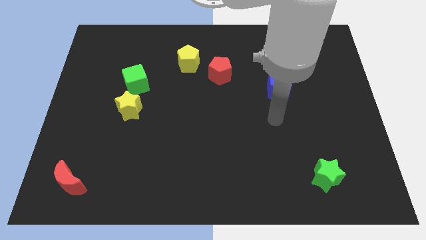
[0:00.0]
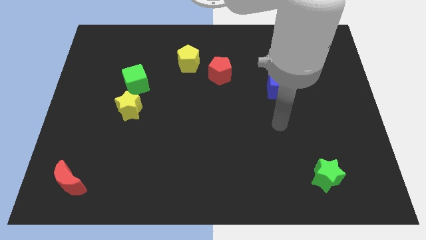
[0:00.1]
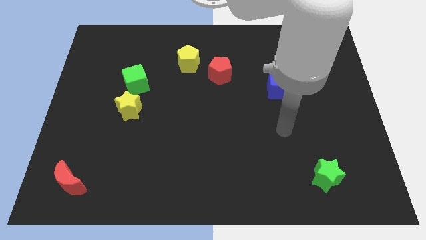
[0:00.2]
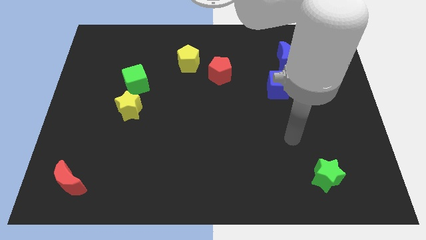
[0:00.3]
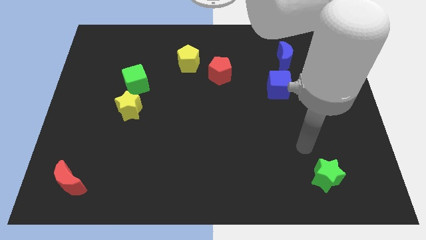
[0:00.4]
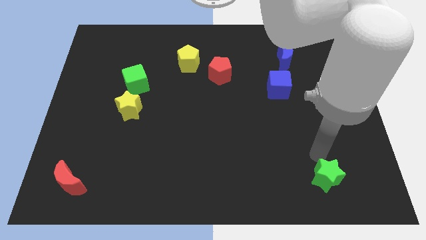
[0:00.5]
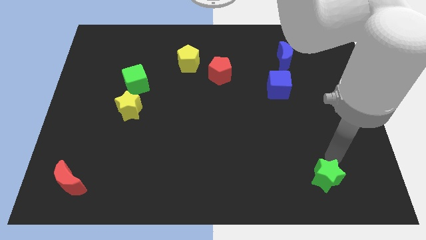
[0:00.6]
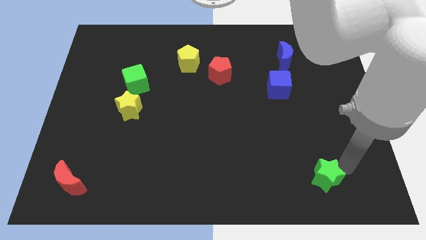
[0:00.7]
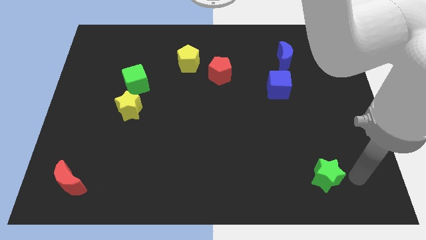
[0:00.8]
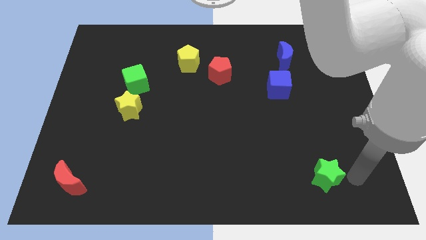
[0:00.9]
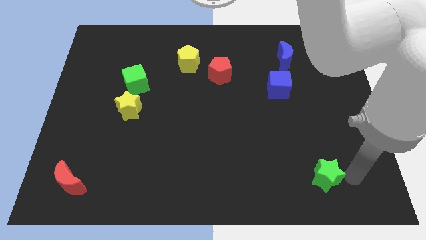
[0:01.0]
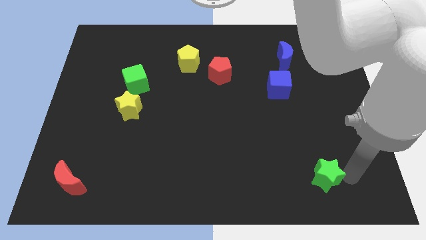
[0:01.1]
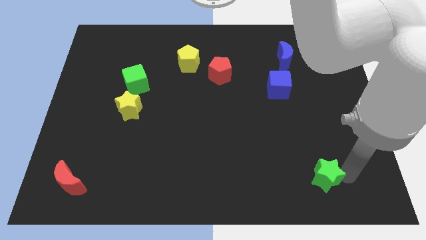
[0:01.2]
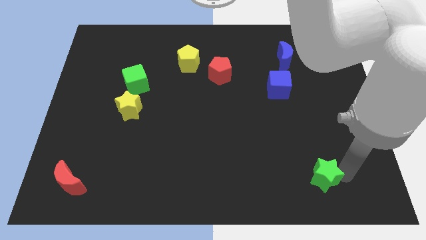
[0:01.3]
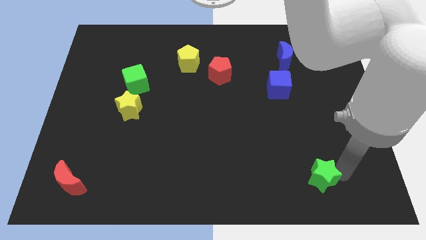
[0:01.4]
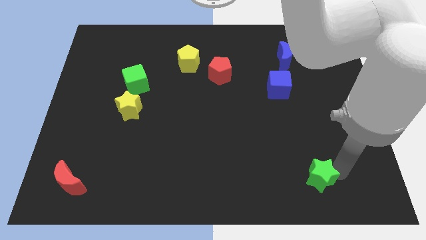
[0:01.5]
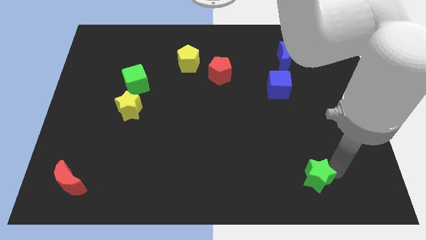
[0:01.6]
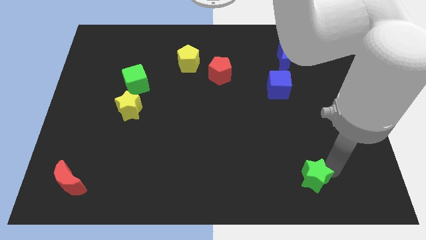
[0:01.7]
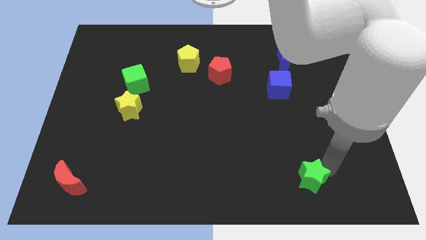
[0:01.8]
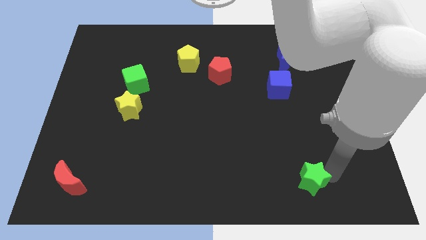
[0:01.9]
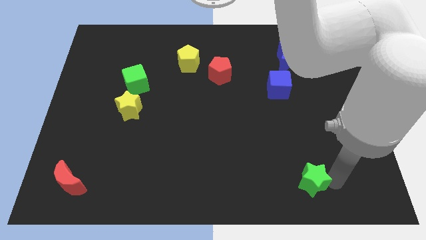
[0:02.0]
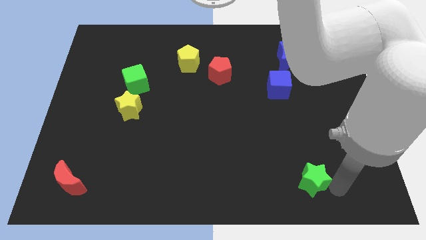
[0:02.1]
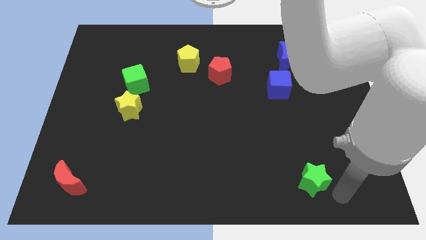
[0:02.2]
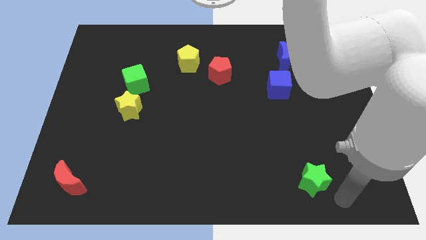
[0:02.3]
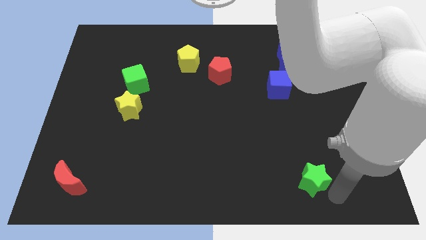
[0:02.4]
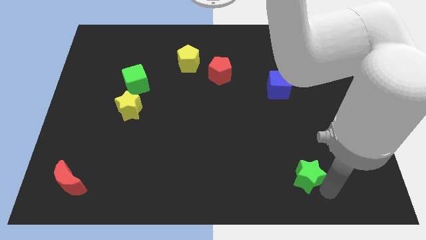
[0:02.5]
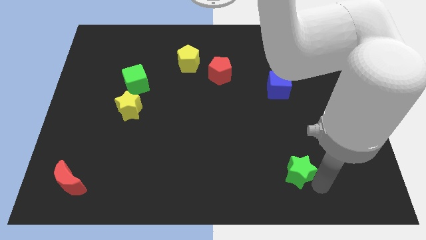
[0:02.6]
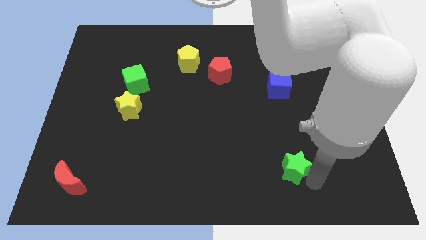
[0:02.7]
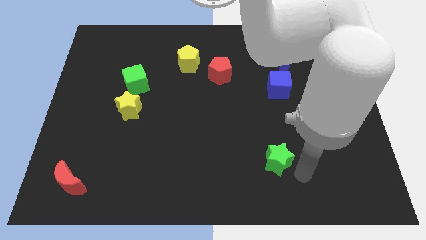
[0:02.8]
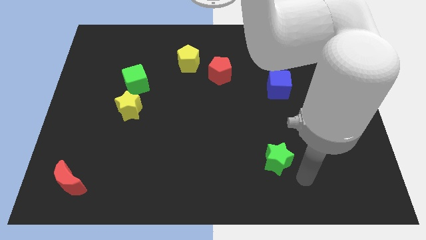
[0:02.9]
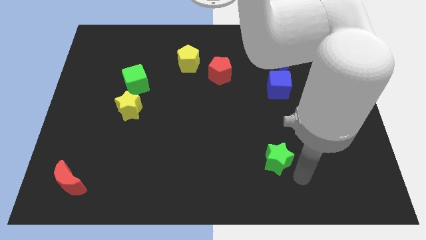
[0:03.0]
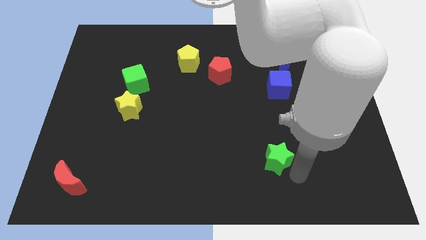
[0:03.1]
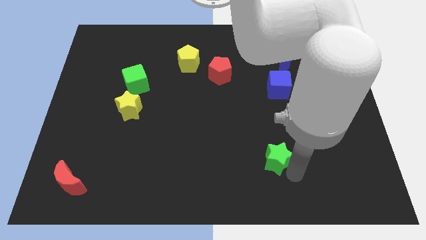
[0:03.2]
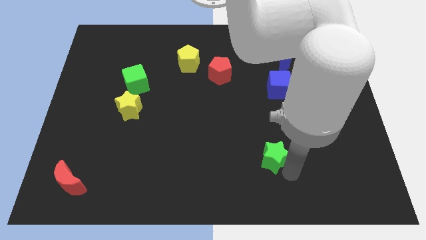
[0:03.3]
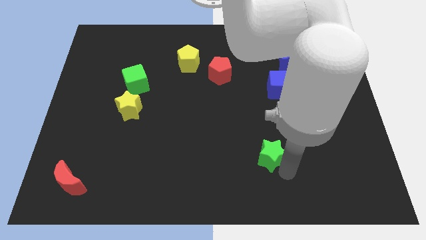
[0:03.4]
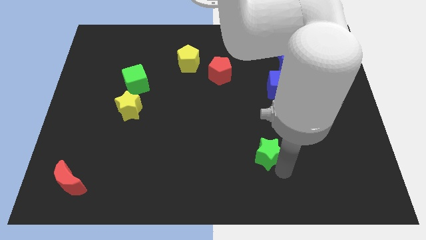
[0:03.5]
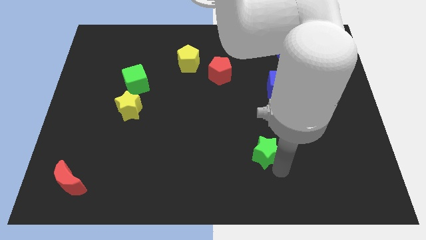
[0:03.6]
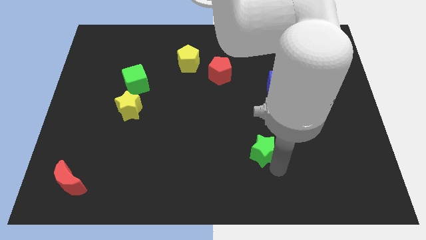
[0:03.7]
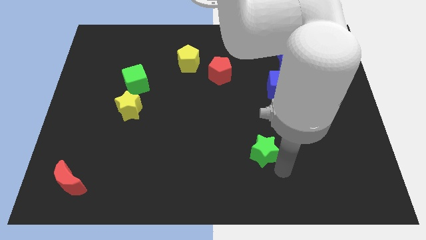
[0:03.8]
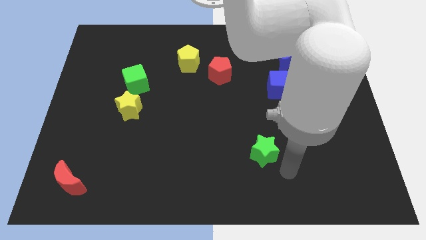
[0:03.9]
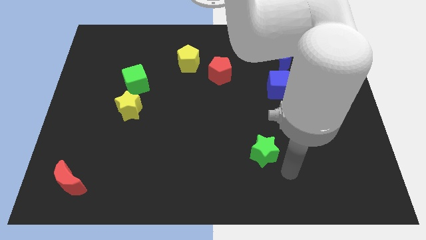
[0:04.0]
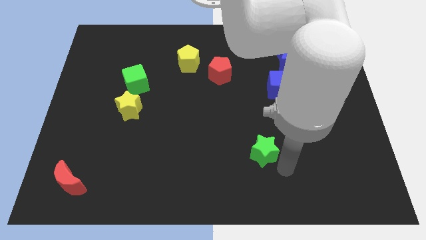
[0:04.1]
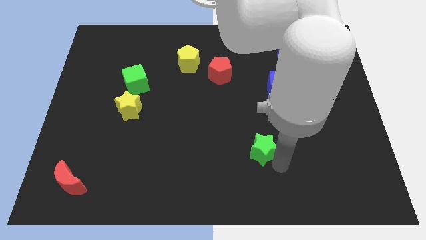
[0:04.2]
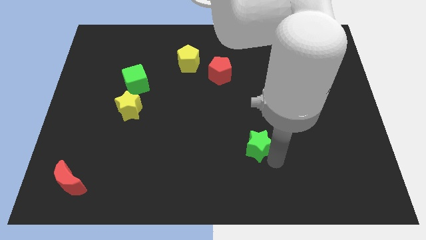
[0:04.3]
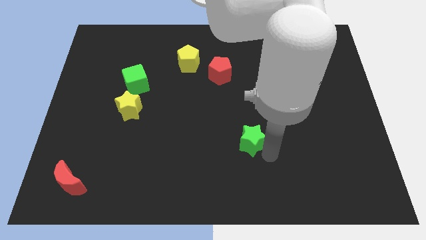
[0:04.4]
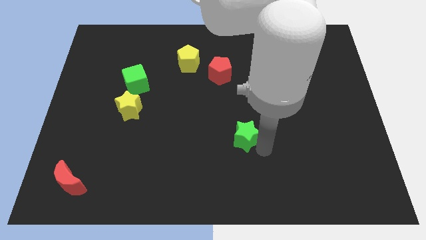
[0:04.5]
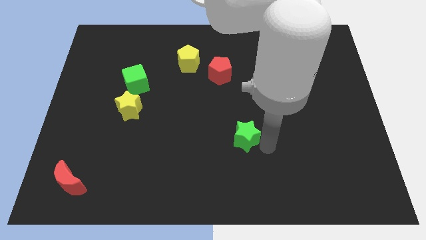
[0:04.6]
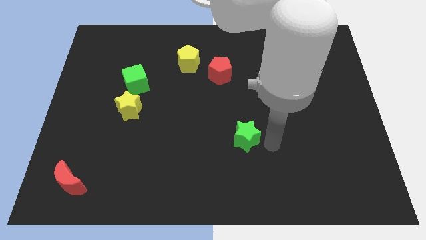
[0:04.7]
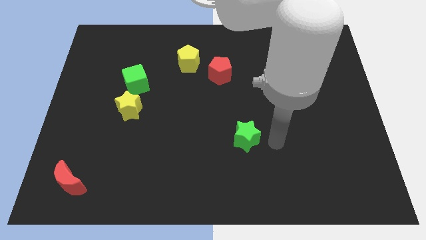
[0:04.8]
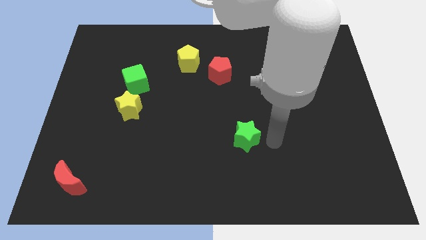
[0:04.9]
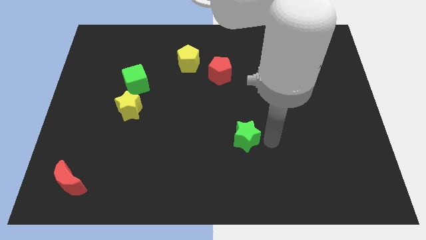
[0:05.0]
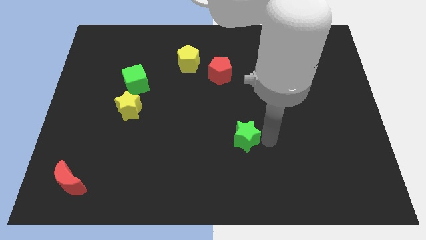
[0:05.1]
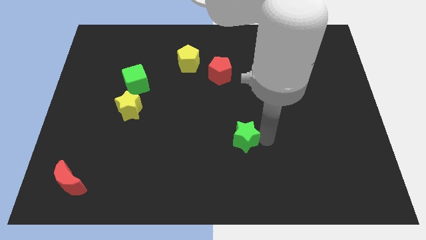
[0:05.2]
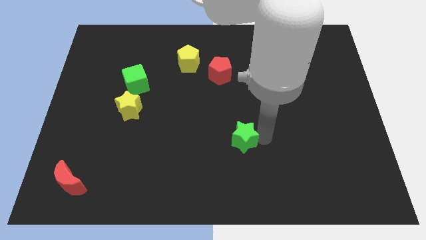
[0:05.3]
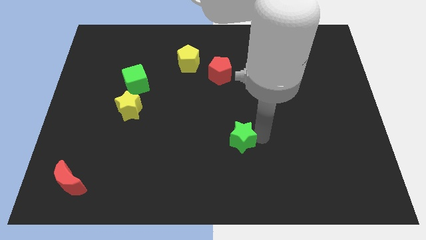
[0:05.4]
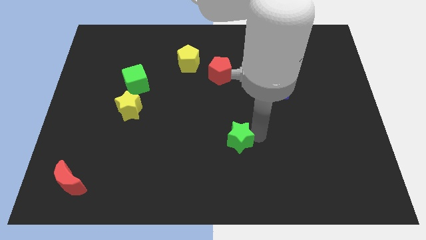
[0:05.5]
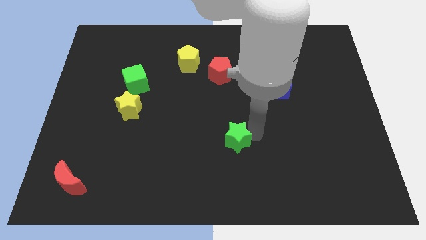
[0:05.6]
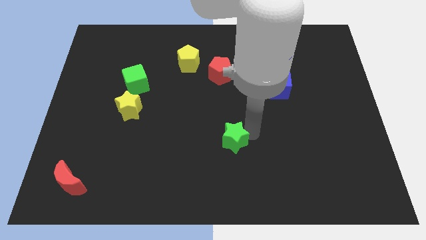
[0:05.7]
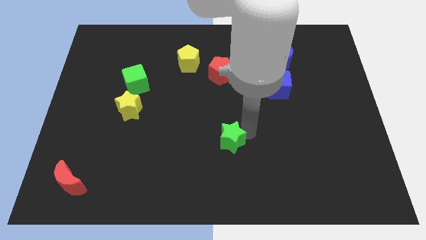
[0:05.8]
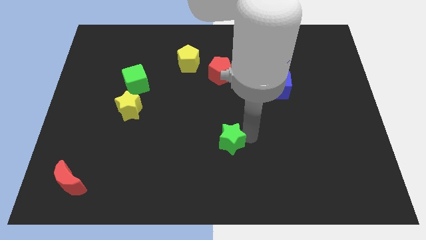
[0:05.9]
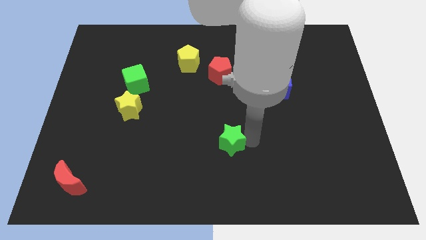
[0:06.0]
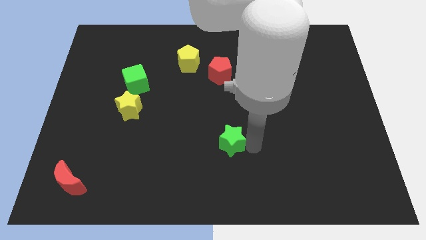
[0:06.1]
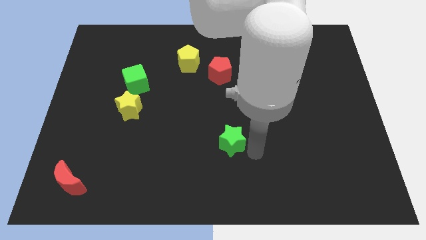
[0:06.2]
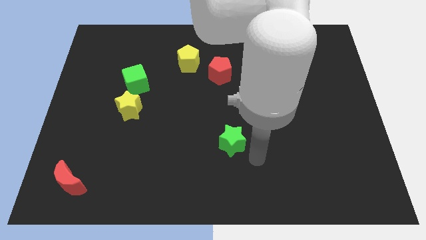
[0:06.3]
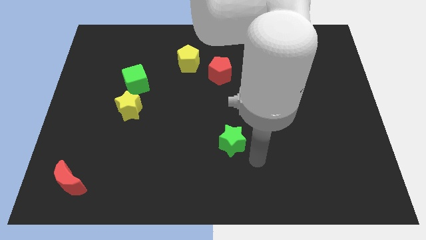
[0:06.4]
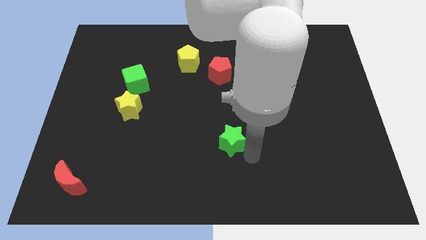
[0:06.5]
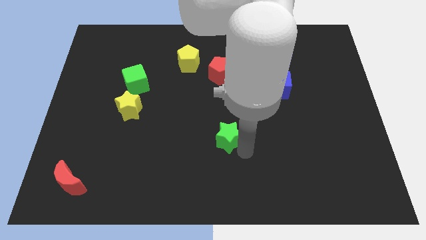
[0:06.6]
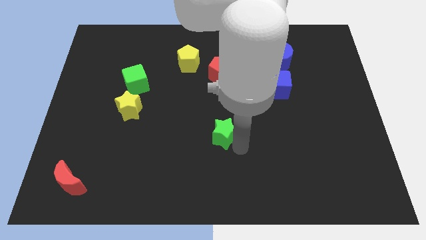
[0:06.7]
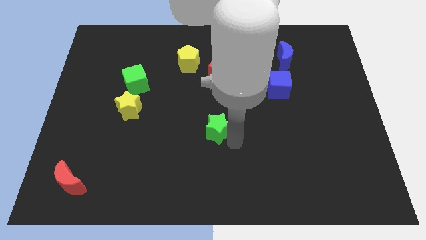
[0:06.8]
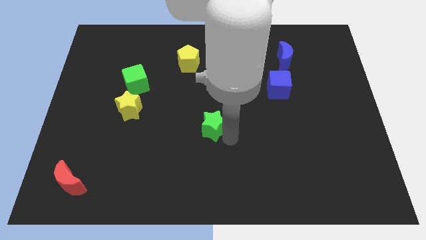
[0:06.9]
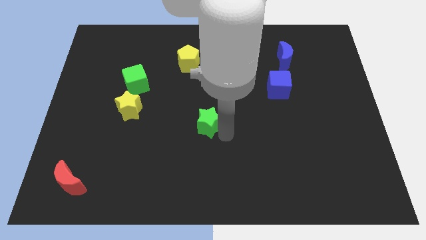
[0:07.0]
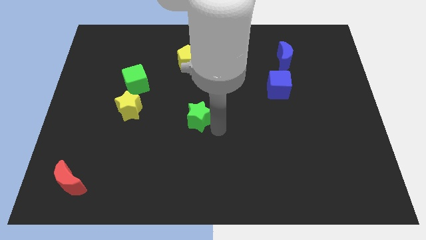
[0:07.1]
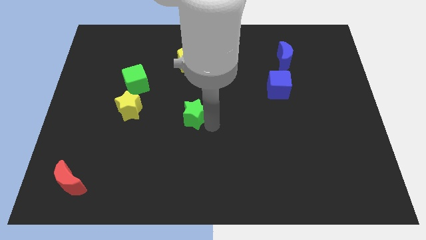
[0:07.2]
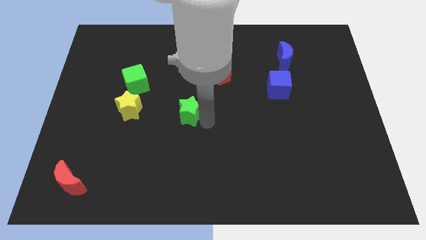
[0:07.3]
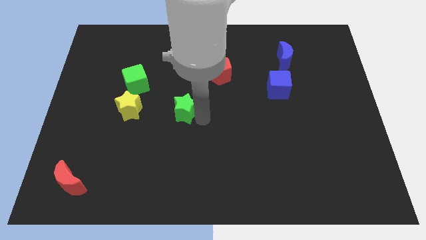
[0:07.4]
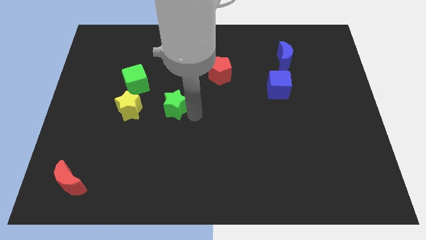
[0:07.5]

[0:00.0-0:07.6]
push the green star to the bottom right of the green cube
